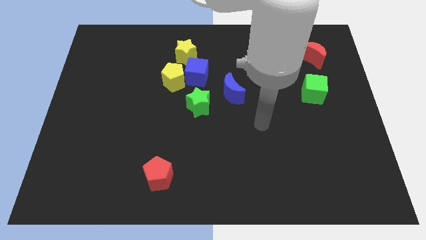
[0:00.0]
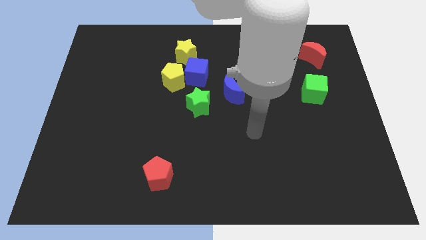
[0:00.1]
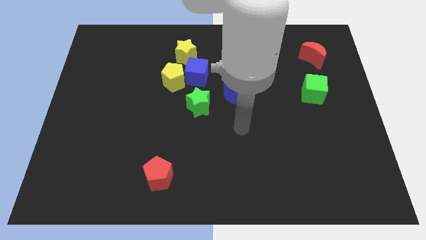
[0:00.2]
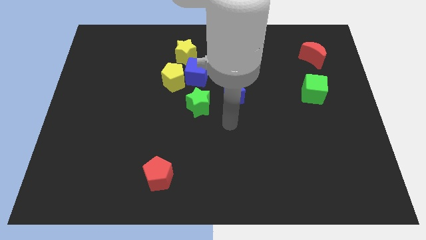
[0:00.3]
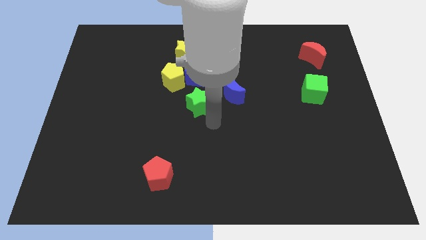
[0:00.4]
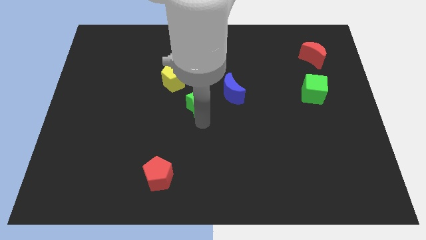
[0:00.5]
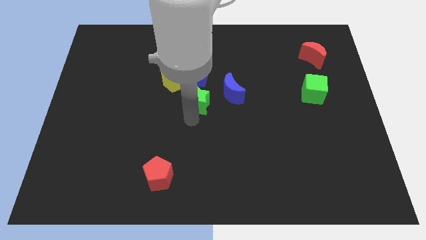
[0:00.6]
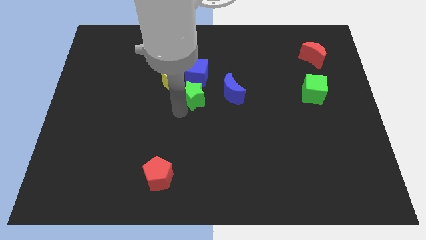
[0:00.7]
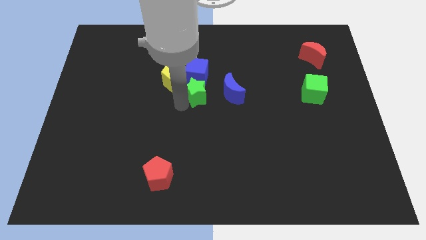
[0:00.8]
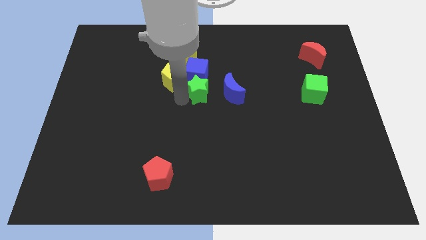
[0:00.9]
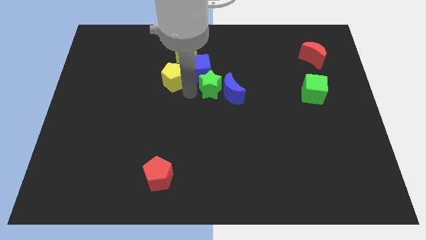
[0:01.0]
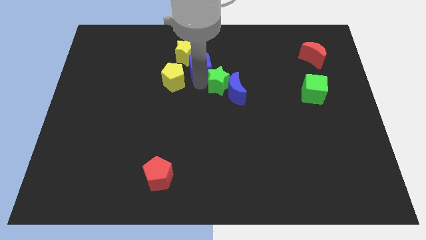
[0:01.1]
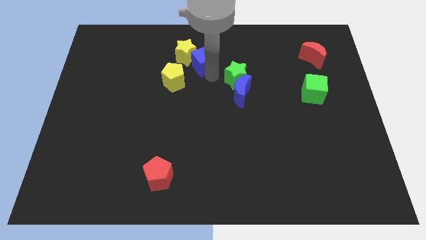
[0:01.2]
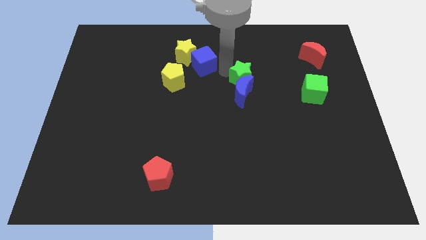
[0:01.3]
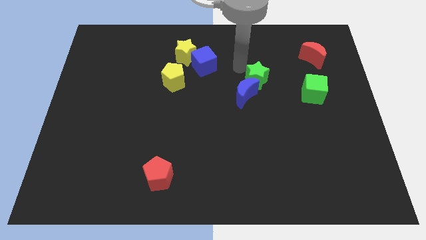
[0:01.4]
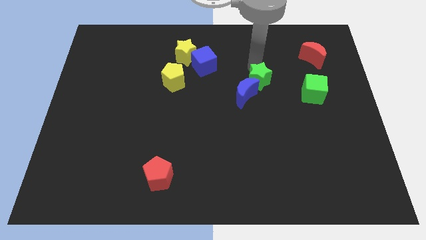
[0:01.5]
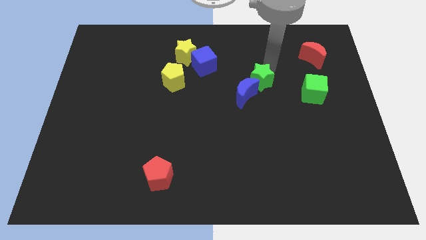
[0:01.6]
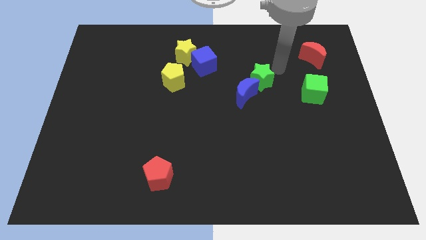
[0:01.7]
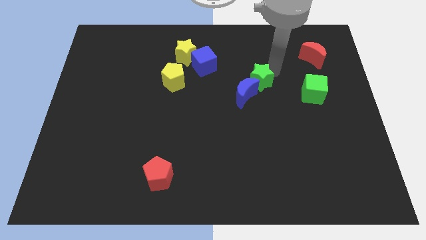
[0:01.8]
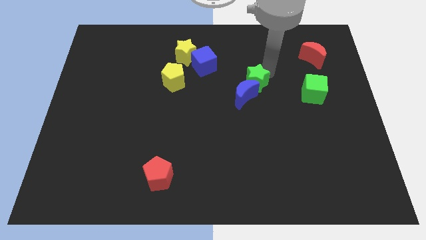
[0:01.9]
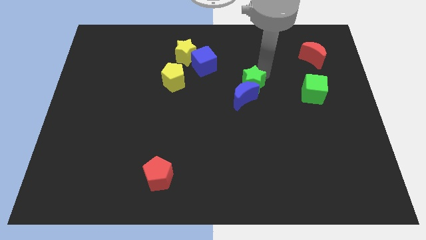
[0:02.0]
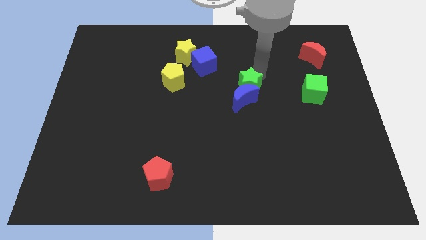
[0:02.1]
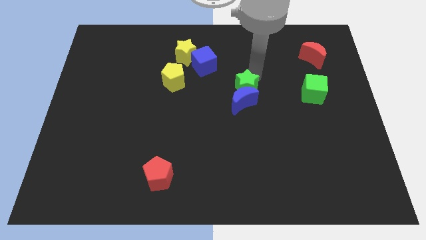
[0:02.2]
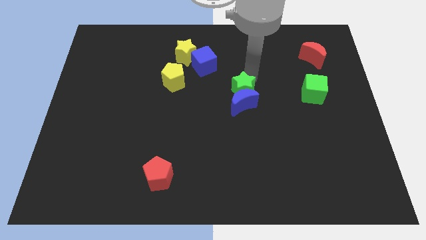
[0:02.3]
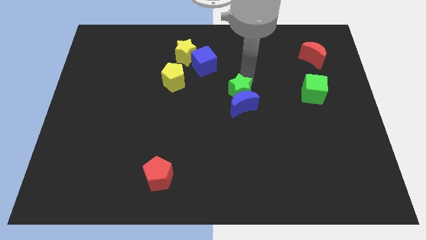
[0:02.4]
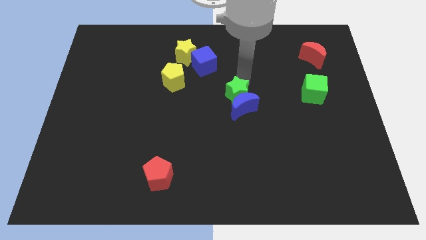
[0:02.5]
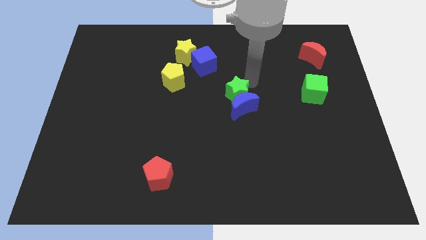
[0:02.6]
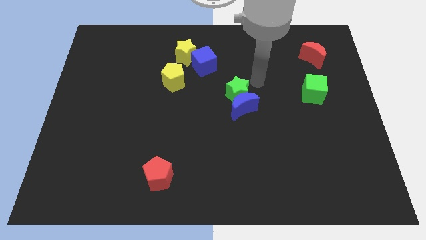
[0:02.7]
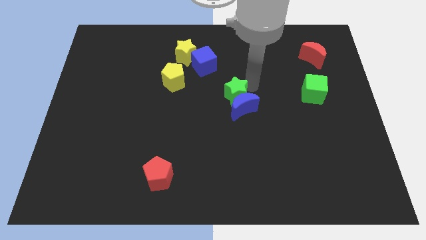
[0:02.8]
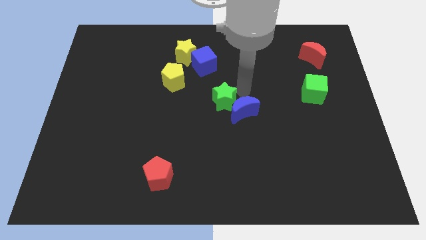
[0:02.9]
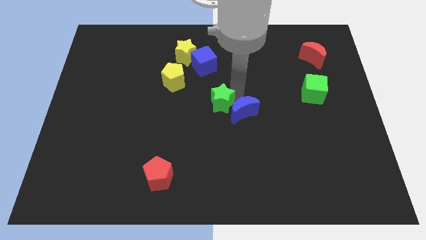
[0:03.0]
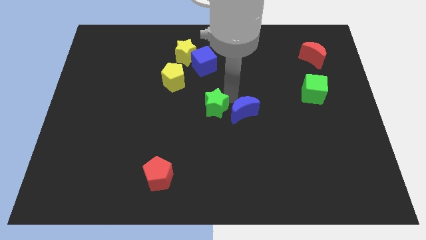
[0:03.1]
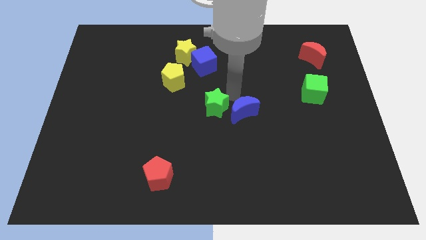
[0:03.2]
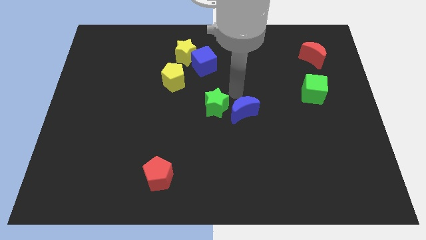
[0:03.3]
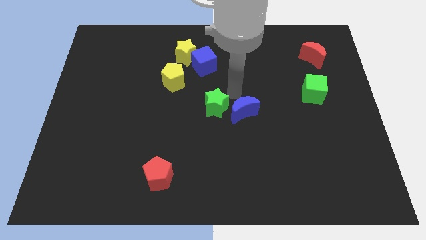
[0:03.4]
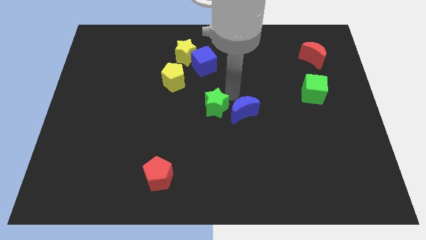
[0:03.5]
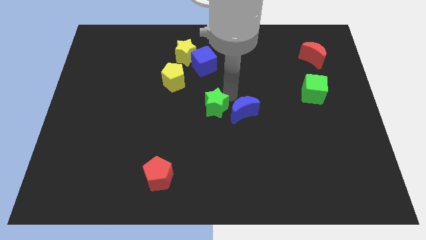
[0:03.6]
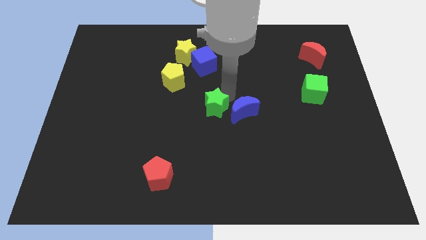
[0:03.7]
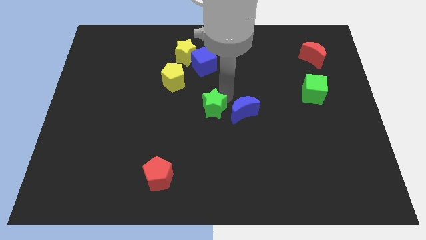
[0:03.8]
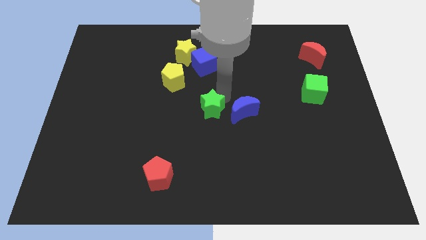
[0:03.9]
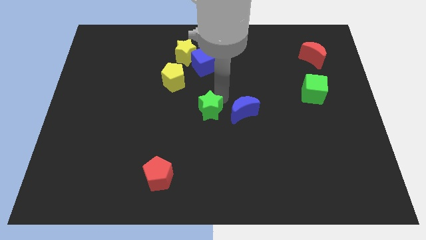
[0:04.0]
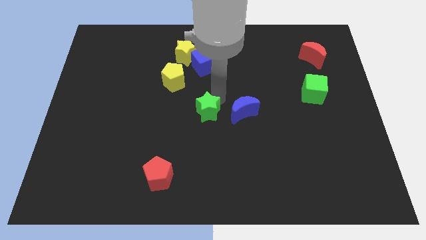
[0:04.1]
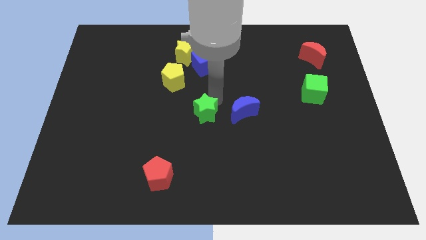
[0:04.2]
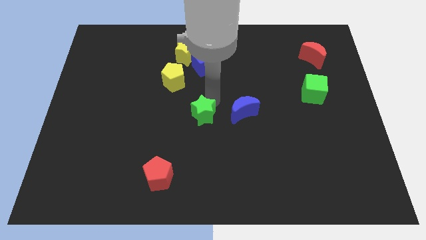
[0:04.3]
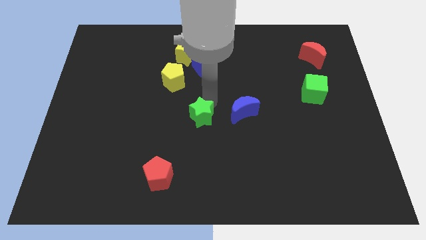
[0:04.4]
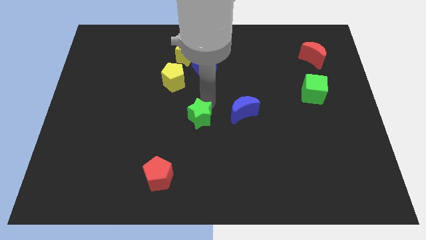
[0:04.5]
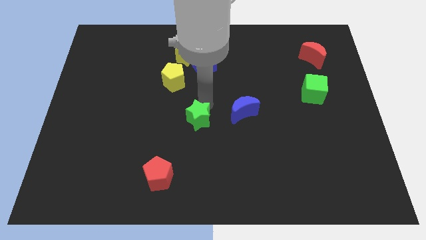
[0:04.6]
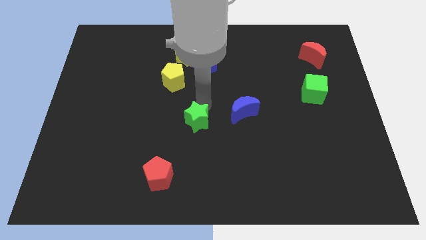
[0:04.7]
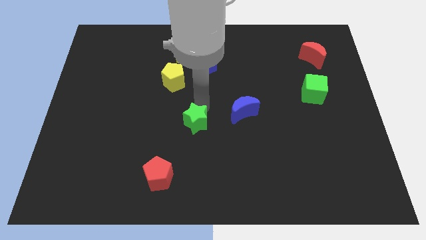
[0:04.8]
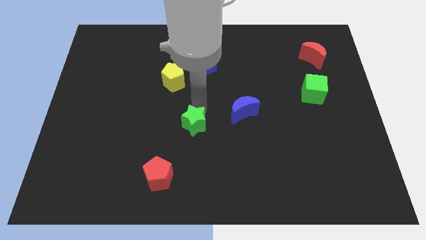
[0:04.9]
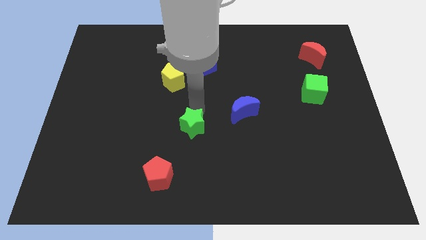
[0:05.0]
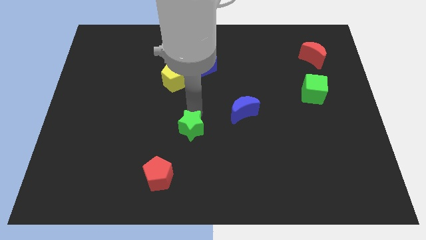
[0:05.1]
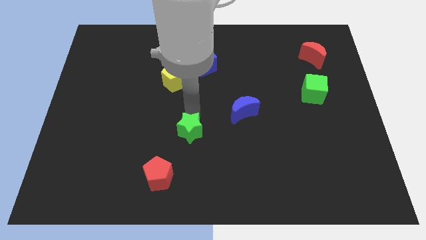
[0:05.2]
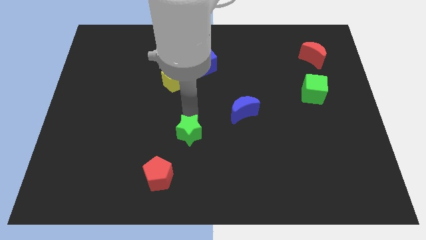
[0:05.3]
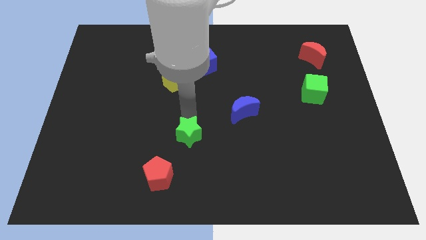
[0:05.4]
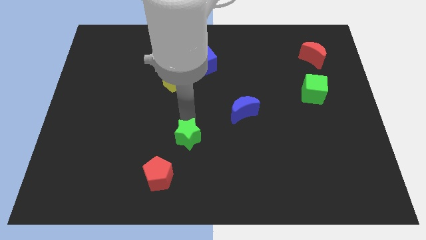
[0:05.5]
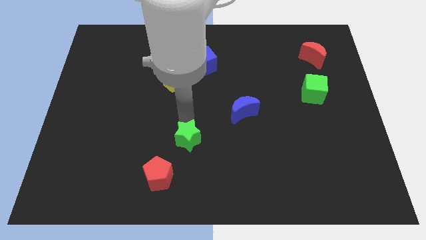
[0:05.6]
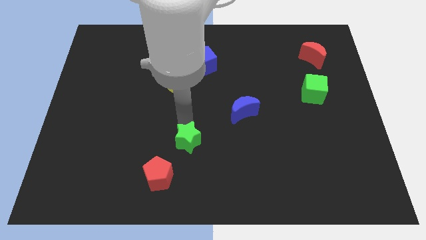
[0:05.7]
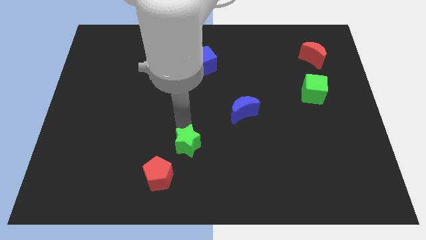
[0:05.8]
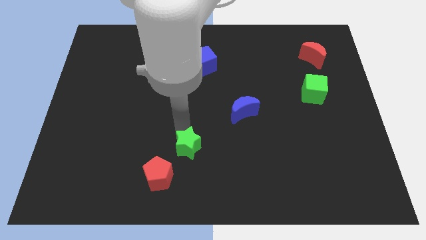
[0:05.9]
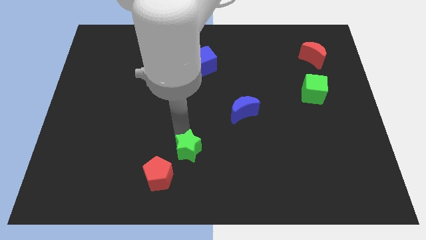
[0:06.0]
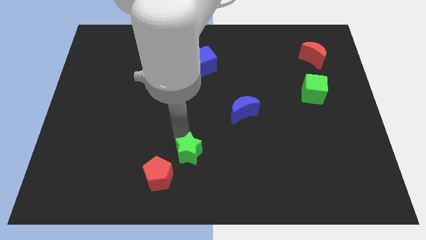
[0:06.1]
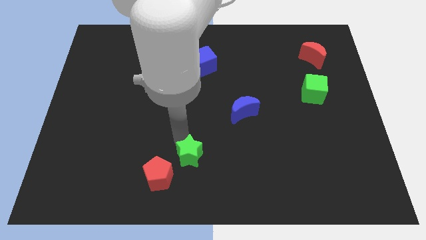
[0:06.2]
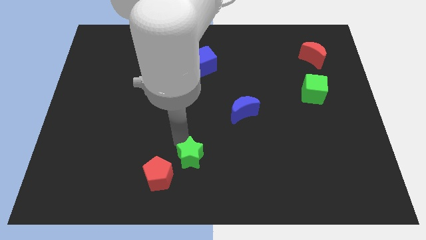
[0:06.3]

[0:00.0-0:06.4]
move the green star to the bottom

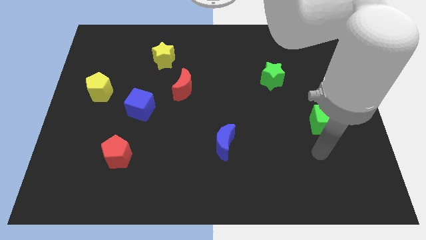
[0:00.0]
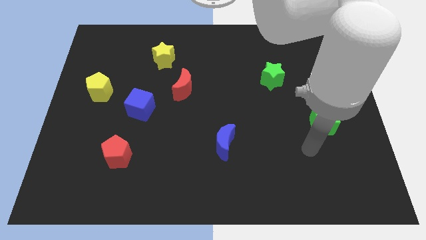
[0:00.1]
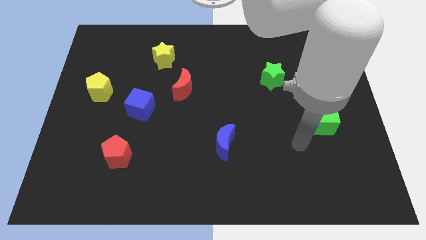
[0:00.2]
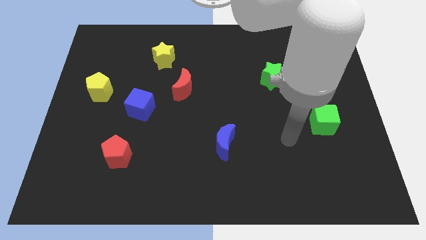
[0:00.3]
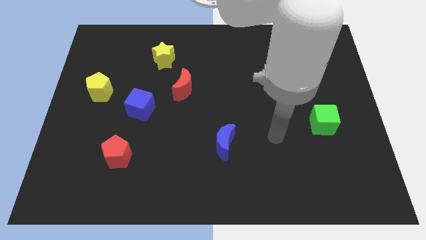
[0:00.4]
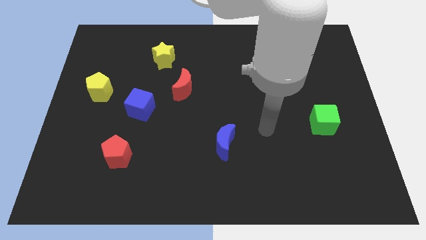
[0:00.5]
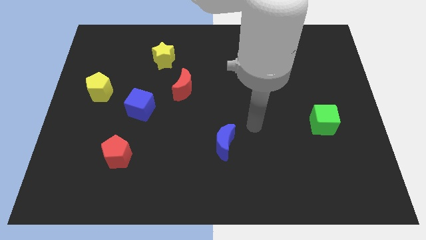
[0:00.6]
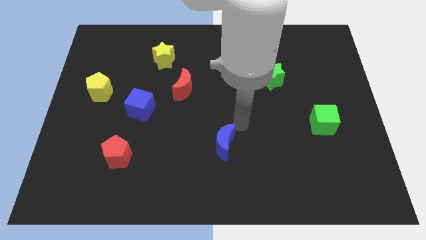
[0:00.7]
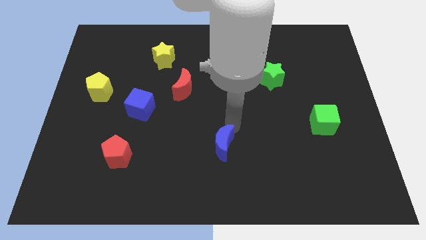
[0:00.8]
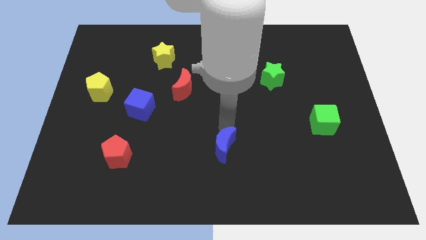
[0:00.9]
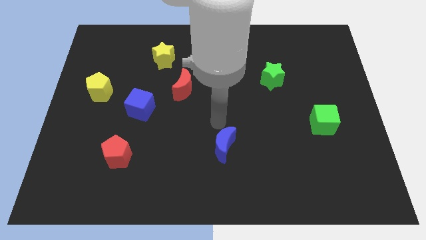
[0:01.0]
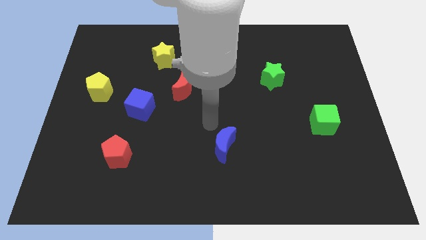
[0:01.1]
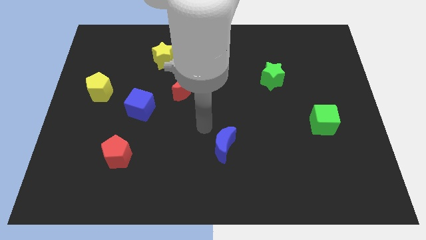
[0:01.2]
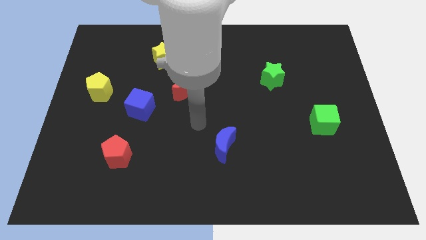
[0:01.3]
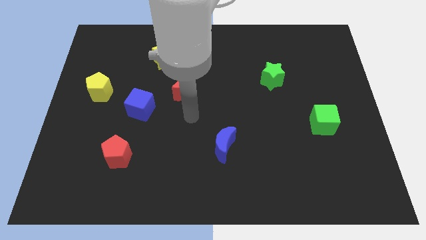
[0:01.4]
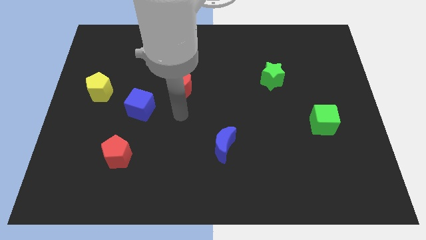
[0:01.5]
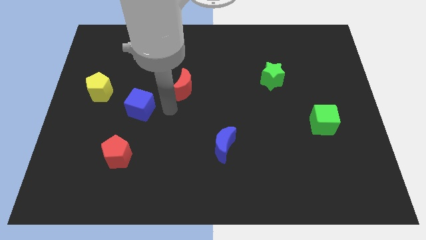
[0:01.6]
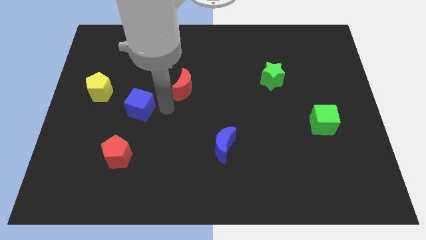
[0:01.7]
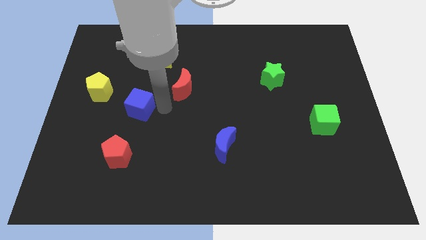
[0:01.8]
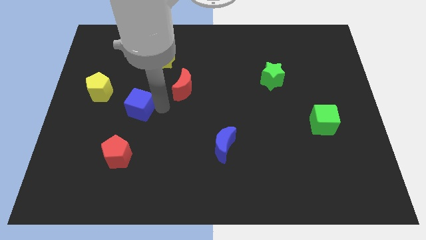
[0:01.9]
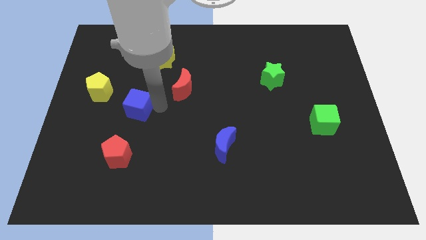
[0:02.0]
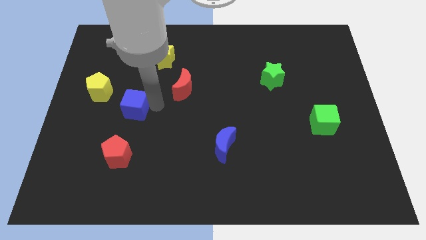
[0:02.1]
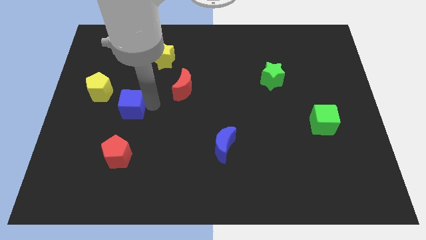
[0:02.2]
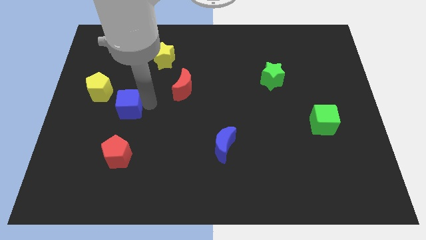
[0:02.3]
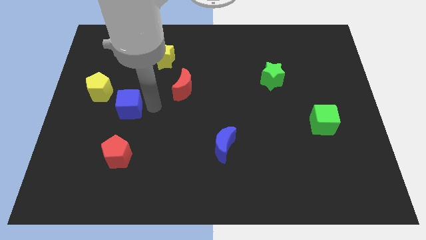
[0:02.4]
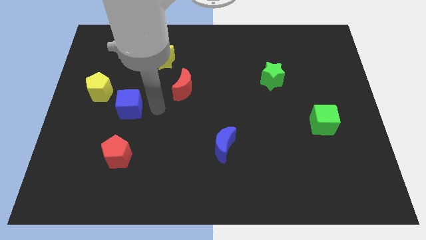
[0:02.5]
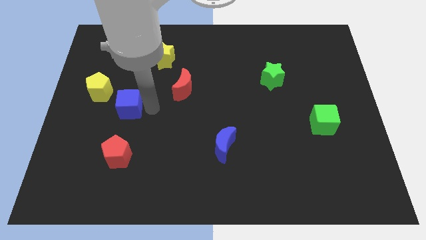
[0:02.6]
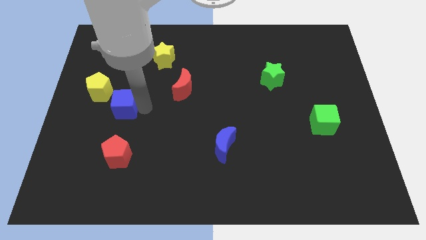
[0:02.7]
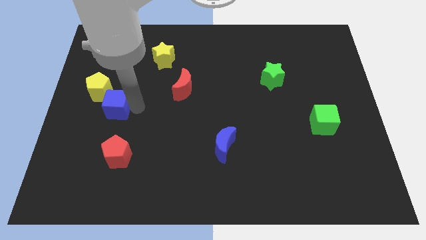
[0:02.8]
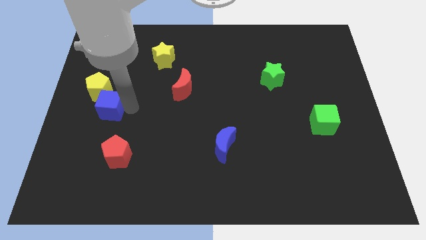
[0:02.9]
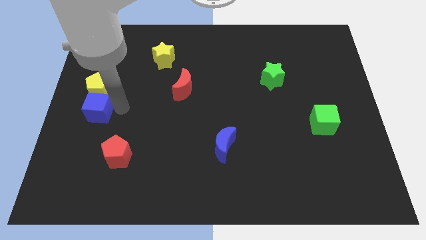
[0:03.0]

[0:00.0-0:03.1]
push the blue cube to the left side
